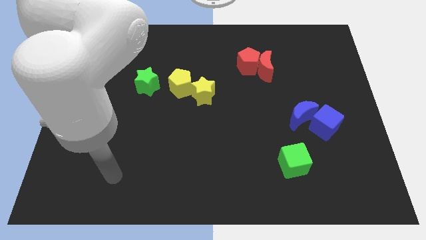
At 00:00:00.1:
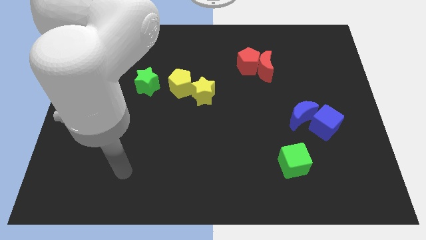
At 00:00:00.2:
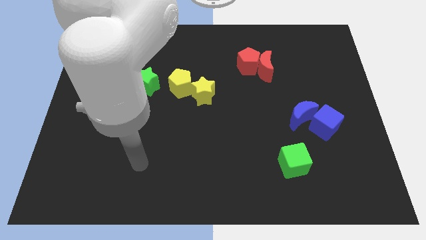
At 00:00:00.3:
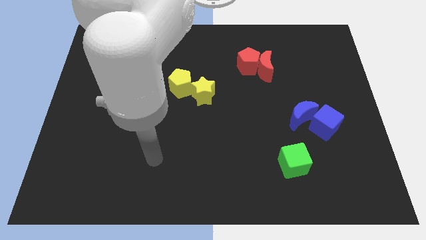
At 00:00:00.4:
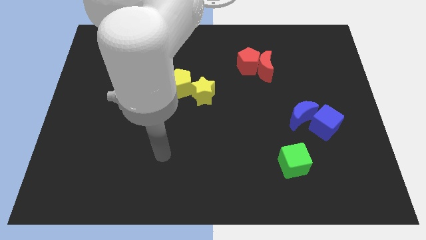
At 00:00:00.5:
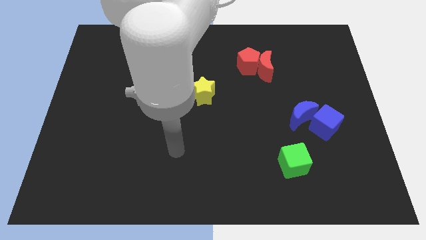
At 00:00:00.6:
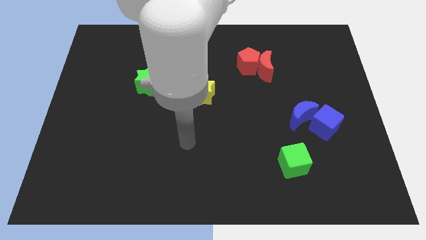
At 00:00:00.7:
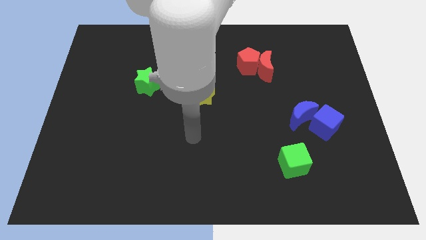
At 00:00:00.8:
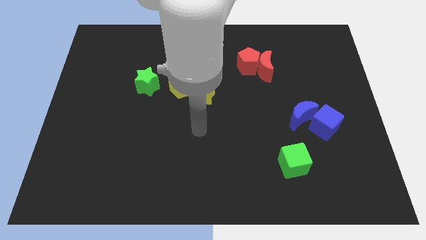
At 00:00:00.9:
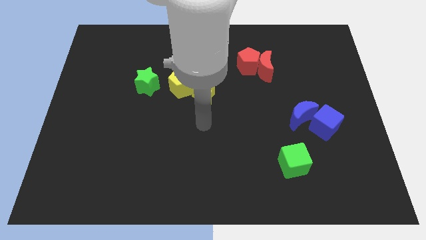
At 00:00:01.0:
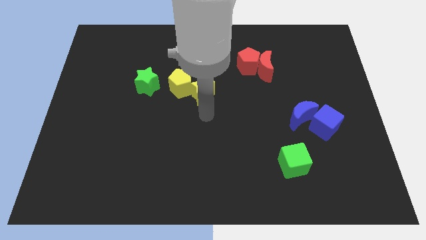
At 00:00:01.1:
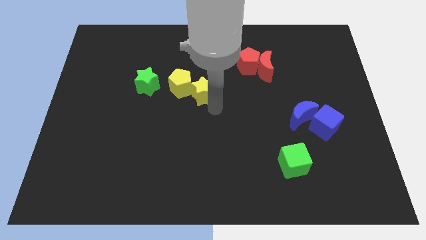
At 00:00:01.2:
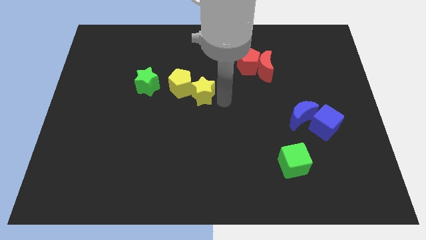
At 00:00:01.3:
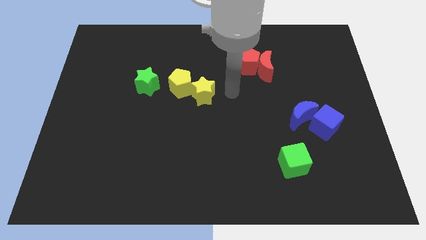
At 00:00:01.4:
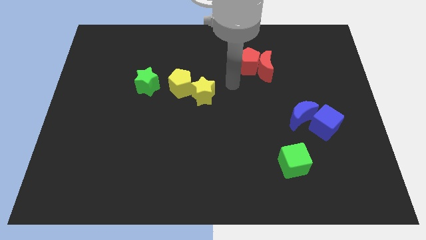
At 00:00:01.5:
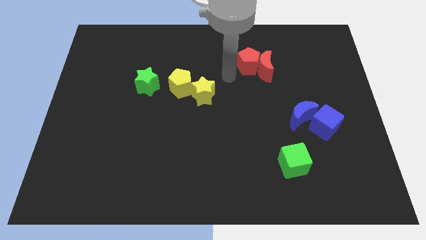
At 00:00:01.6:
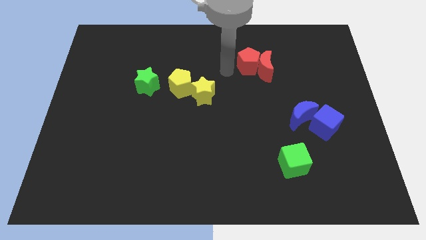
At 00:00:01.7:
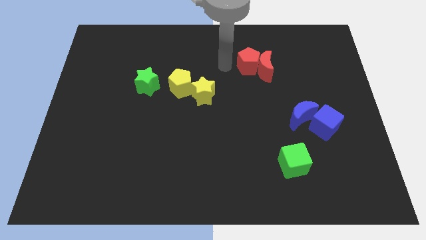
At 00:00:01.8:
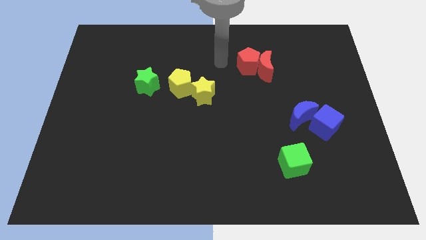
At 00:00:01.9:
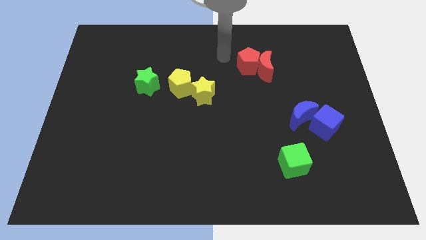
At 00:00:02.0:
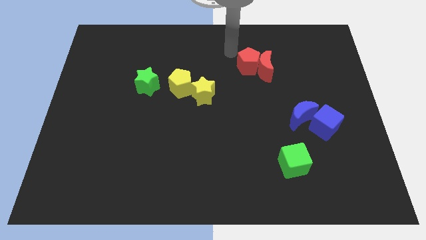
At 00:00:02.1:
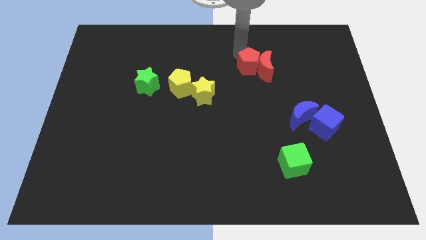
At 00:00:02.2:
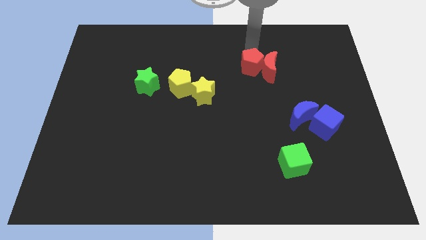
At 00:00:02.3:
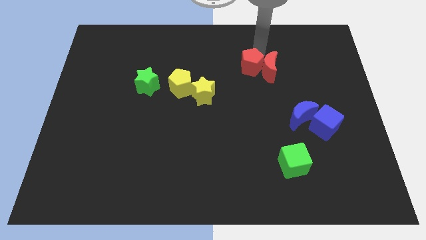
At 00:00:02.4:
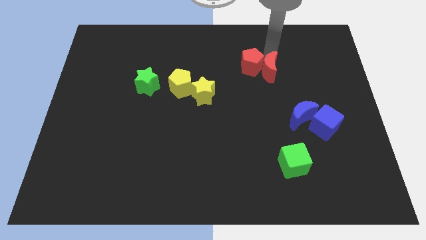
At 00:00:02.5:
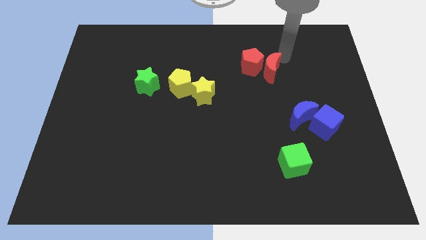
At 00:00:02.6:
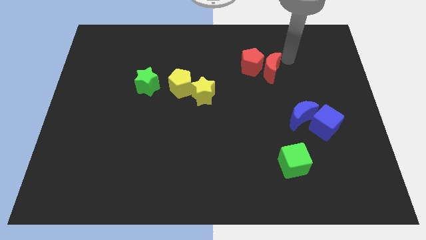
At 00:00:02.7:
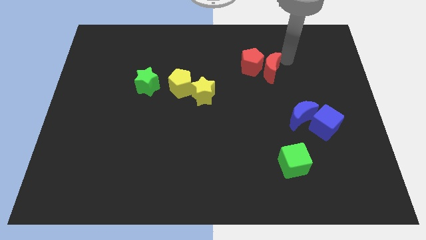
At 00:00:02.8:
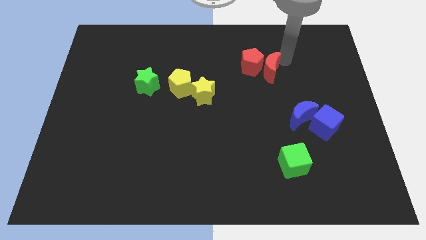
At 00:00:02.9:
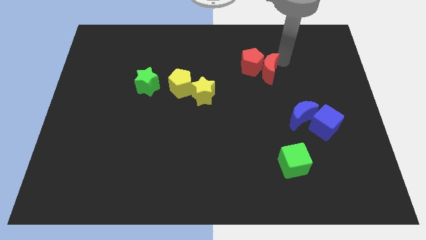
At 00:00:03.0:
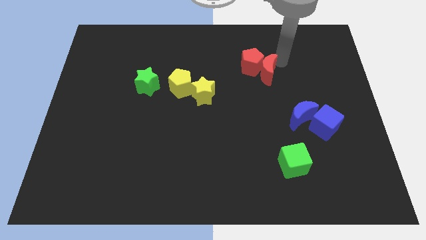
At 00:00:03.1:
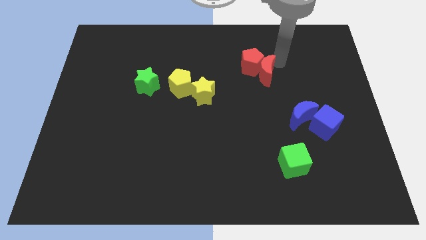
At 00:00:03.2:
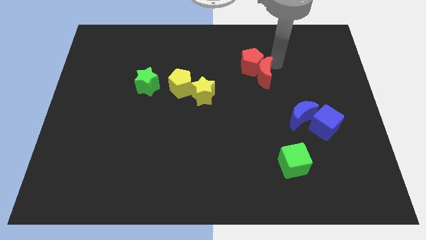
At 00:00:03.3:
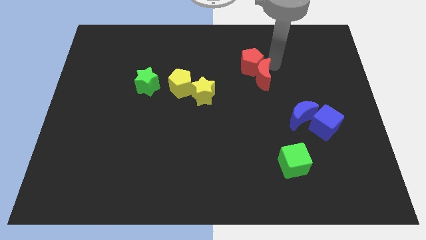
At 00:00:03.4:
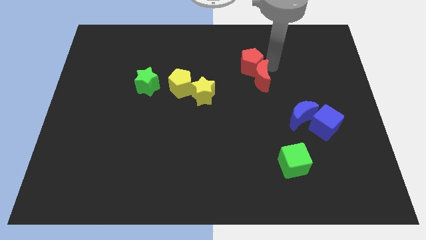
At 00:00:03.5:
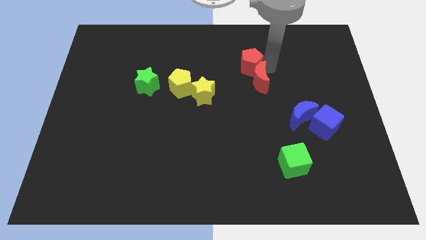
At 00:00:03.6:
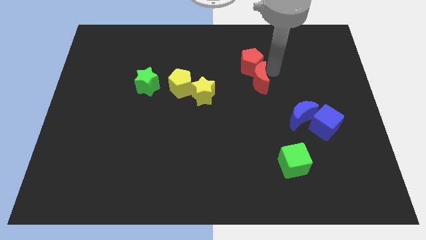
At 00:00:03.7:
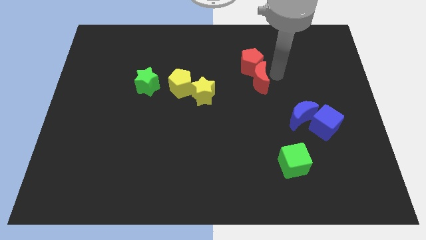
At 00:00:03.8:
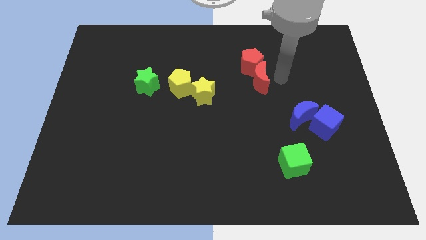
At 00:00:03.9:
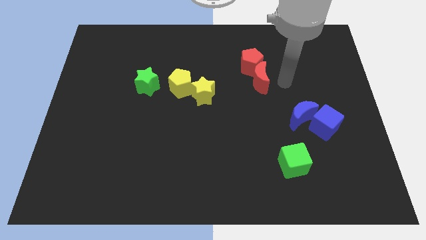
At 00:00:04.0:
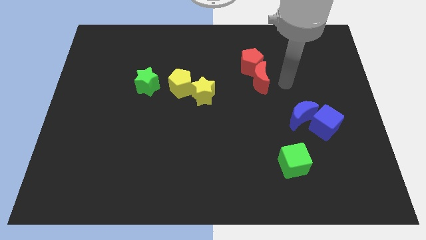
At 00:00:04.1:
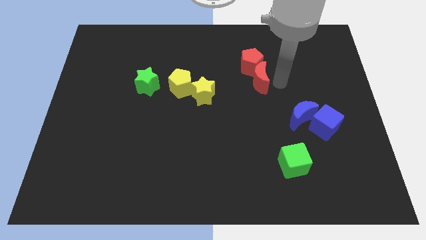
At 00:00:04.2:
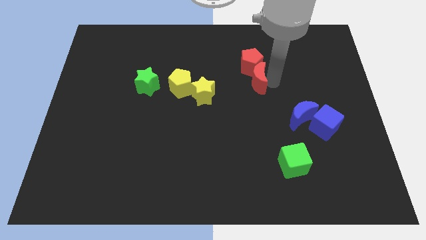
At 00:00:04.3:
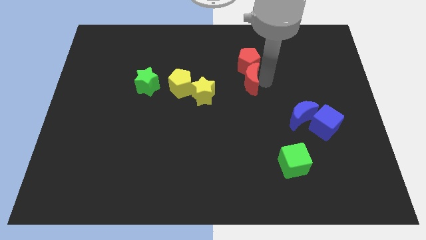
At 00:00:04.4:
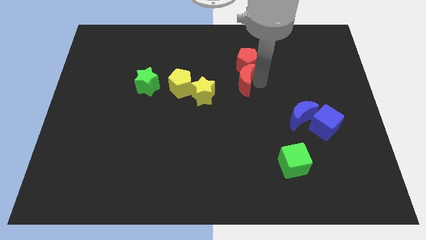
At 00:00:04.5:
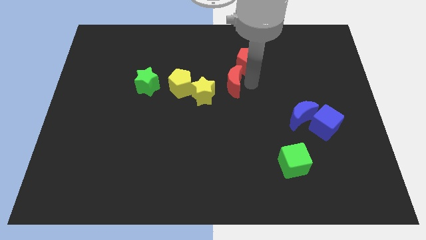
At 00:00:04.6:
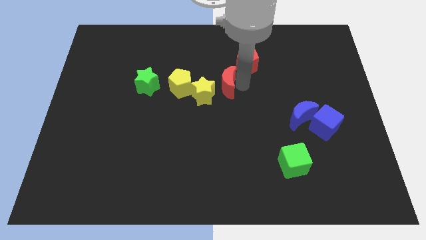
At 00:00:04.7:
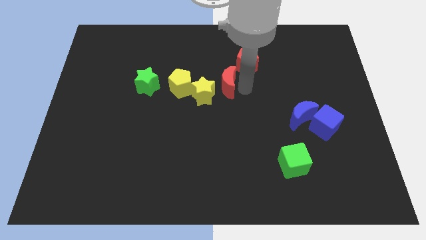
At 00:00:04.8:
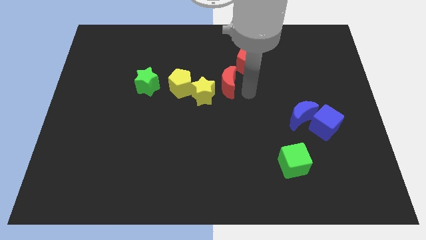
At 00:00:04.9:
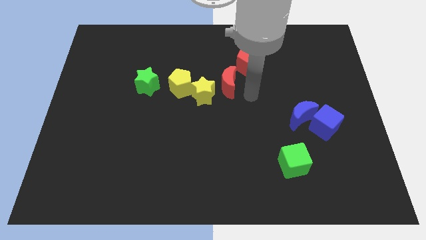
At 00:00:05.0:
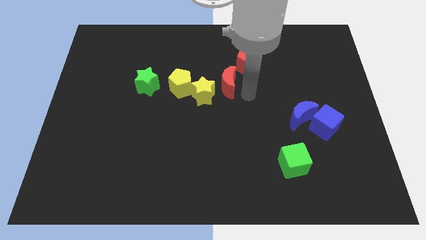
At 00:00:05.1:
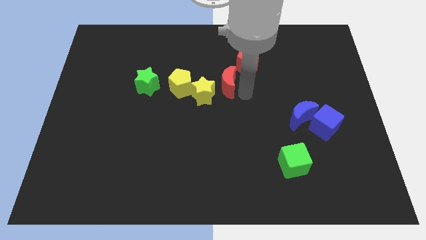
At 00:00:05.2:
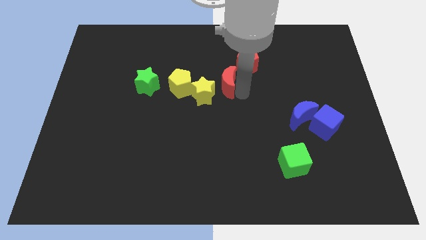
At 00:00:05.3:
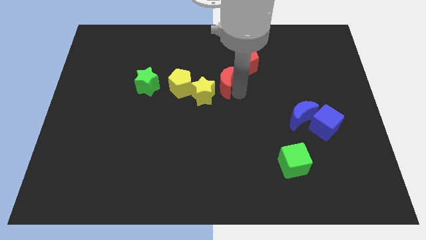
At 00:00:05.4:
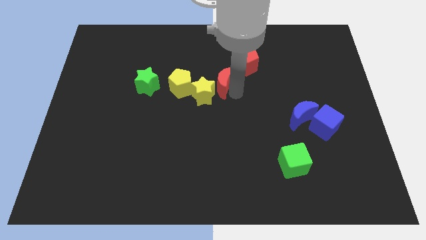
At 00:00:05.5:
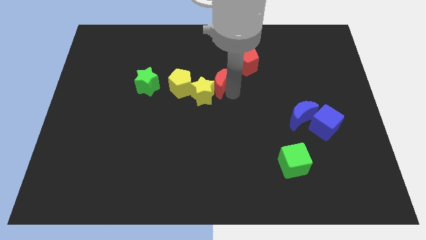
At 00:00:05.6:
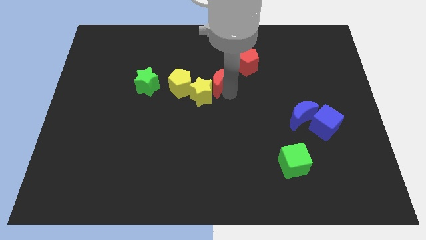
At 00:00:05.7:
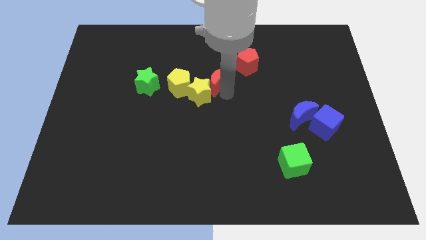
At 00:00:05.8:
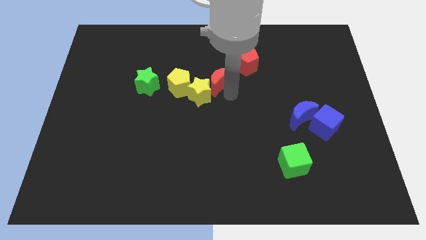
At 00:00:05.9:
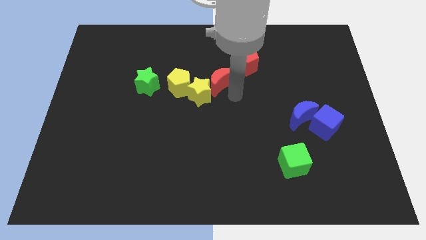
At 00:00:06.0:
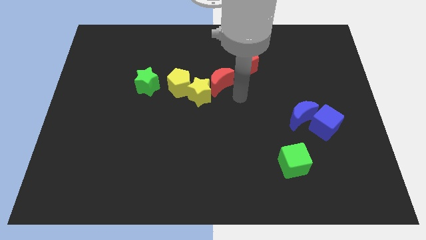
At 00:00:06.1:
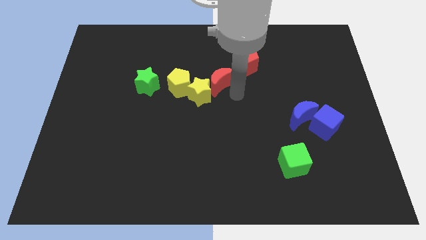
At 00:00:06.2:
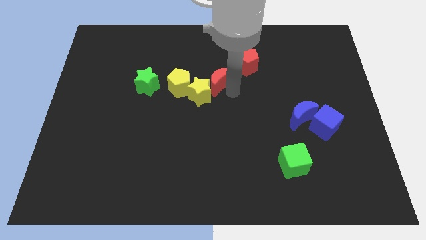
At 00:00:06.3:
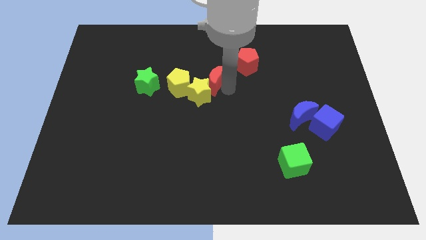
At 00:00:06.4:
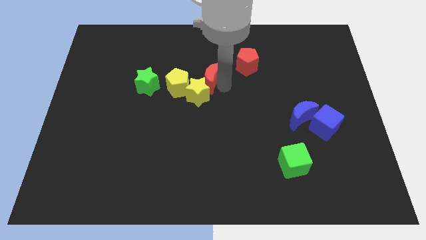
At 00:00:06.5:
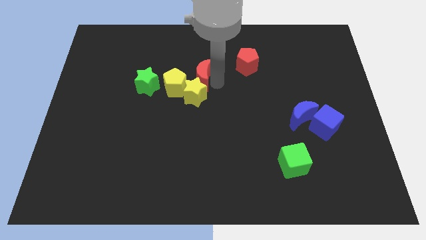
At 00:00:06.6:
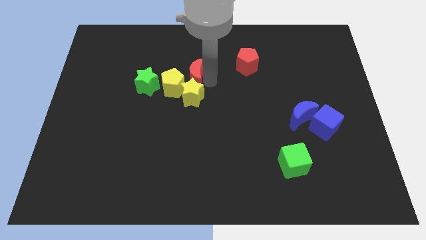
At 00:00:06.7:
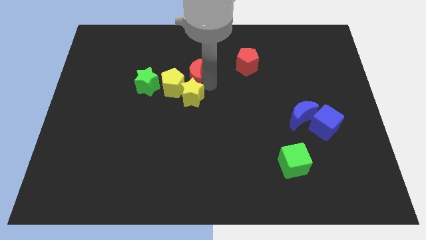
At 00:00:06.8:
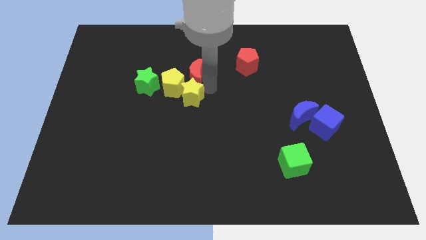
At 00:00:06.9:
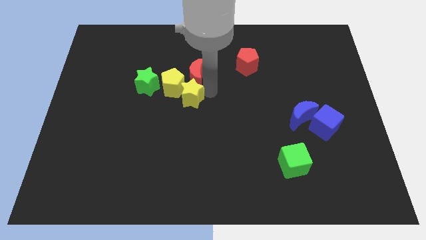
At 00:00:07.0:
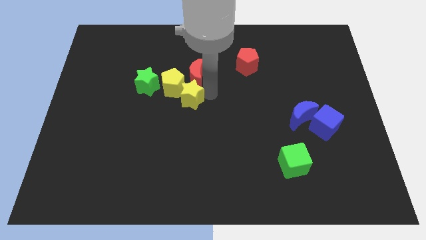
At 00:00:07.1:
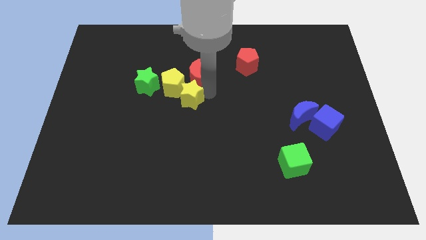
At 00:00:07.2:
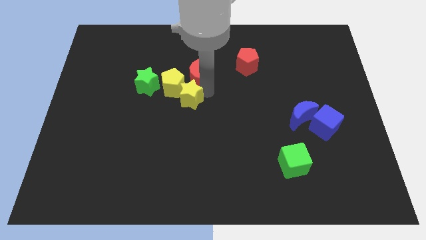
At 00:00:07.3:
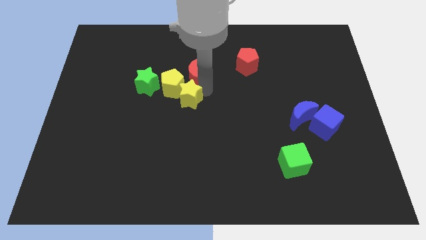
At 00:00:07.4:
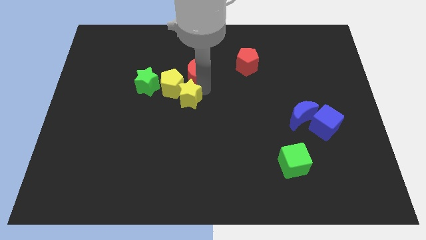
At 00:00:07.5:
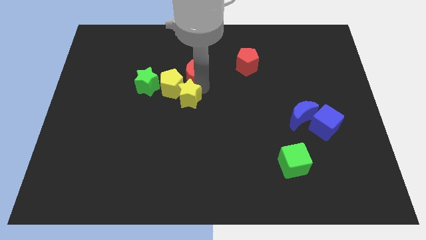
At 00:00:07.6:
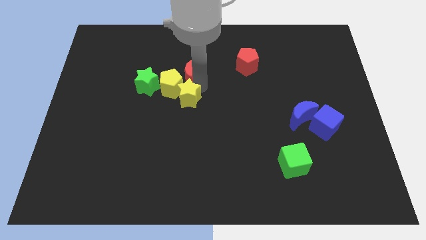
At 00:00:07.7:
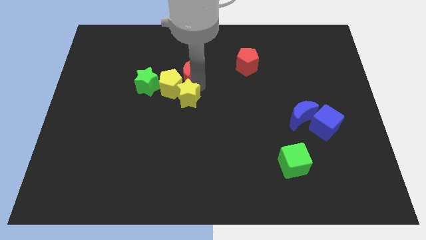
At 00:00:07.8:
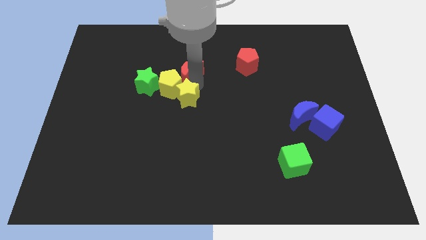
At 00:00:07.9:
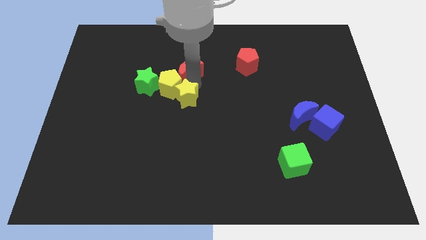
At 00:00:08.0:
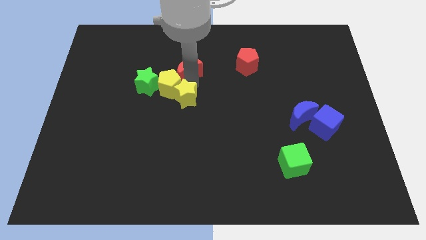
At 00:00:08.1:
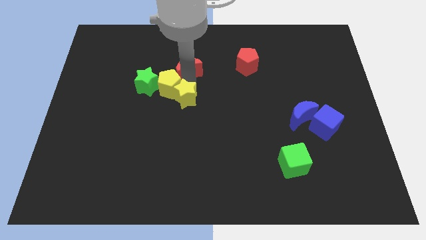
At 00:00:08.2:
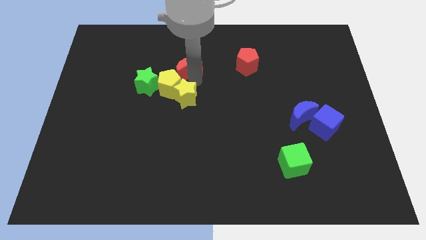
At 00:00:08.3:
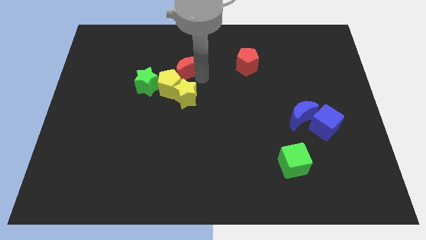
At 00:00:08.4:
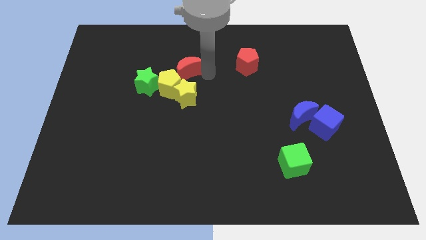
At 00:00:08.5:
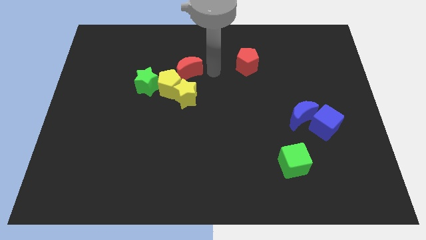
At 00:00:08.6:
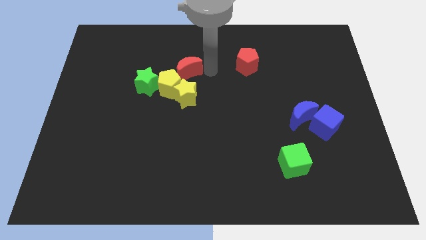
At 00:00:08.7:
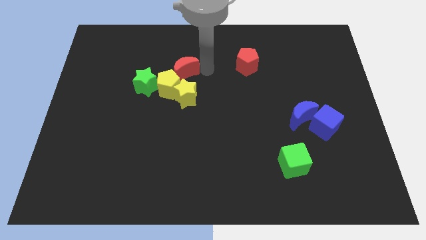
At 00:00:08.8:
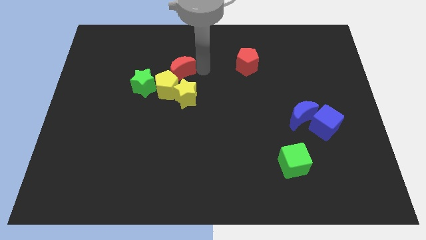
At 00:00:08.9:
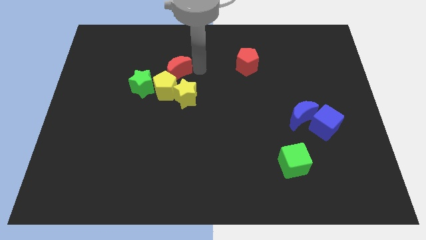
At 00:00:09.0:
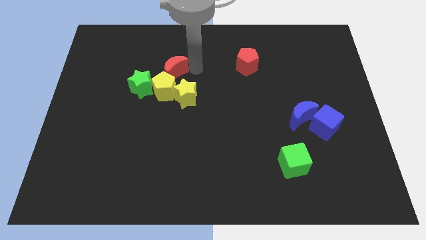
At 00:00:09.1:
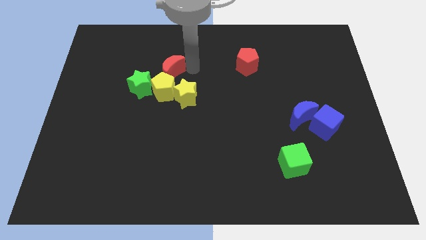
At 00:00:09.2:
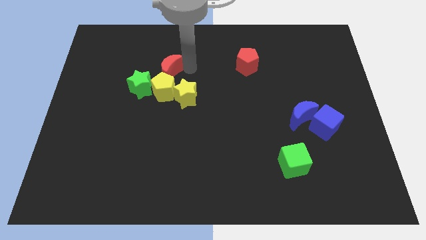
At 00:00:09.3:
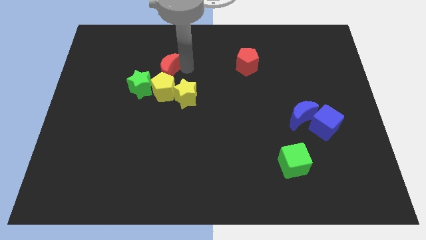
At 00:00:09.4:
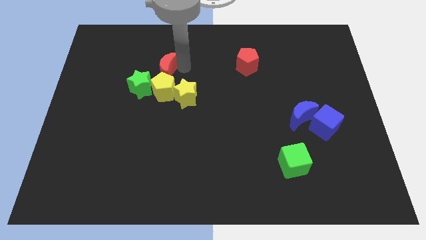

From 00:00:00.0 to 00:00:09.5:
move the red moon diagonally up and to the left of the yellow pentagon
